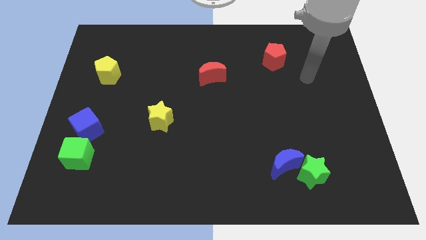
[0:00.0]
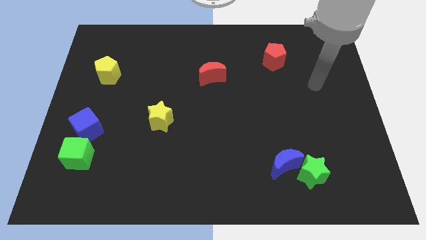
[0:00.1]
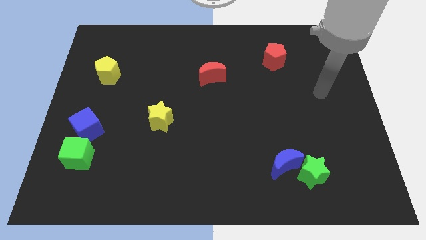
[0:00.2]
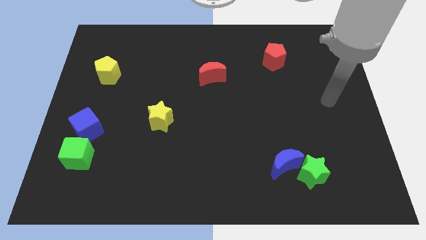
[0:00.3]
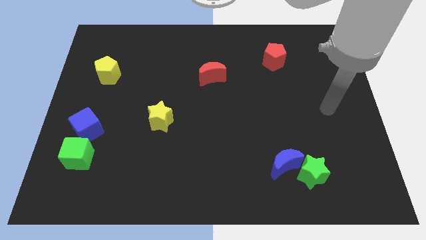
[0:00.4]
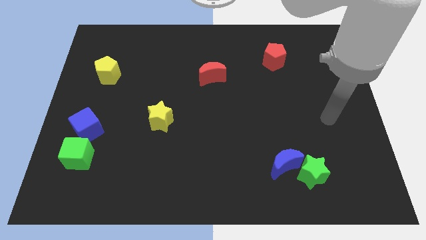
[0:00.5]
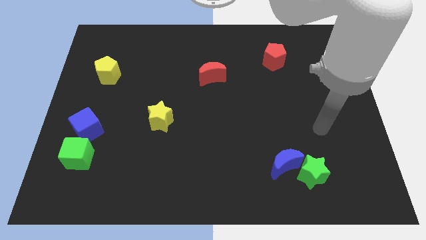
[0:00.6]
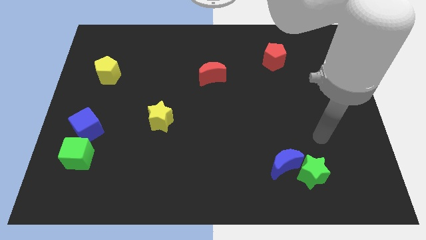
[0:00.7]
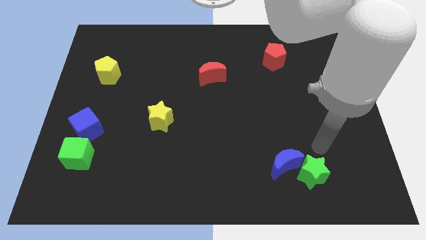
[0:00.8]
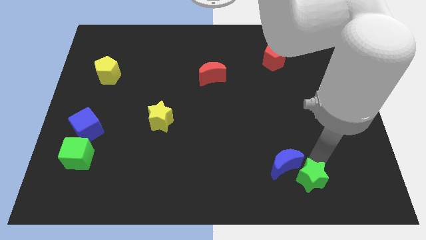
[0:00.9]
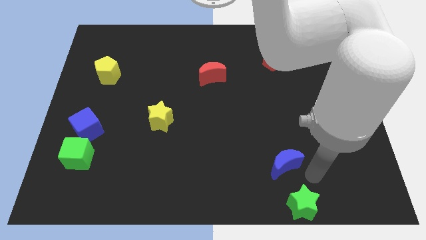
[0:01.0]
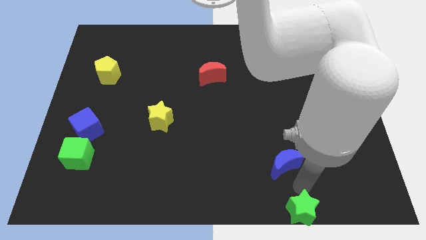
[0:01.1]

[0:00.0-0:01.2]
separate the blue moon from the green star

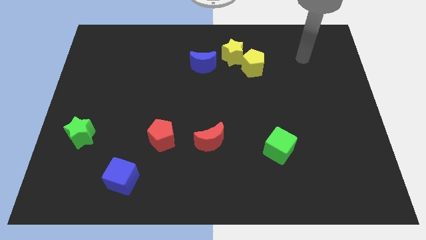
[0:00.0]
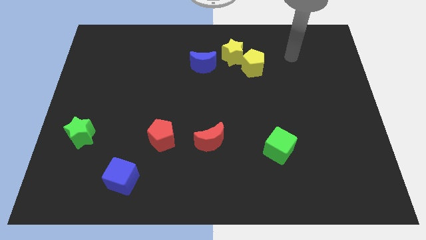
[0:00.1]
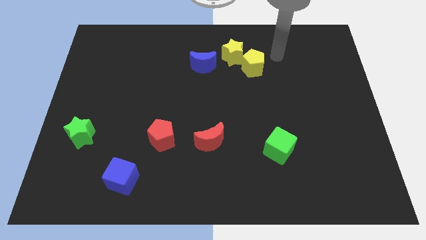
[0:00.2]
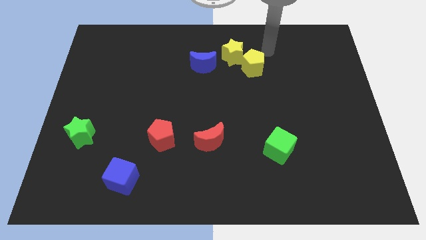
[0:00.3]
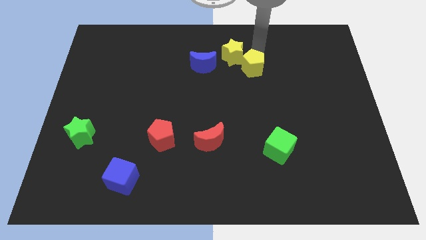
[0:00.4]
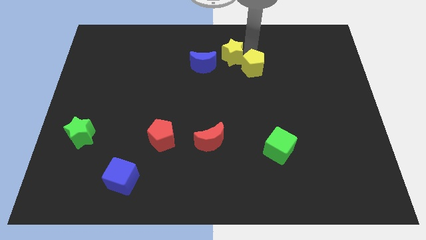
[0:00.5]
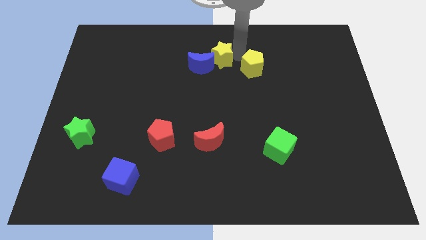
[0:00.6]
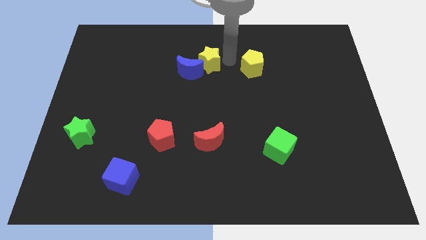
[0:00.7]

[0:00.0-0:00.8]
pull the yellow pentagon apart from the yellow star

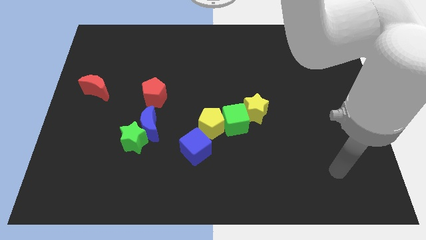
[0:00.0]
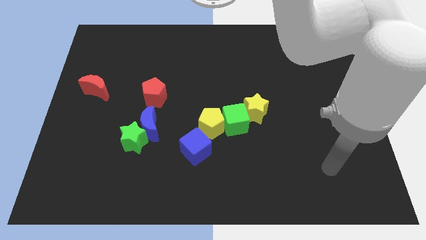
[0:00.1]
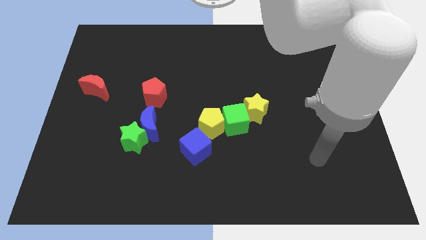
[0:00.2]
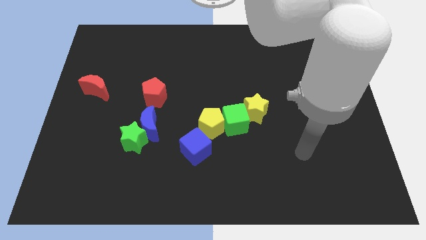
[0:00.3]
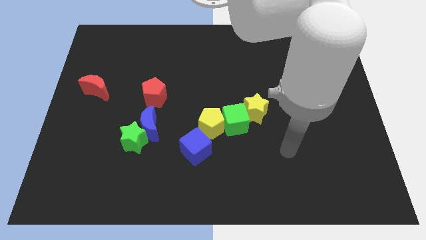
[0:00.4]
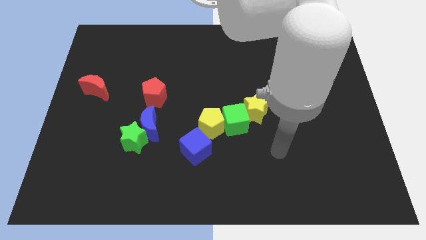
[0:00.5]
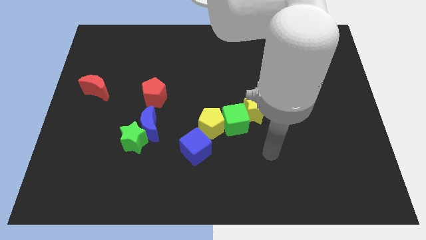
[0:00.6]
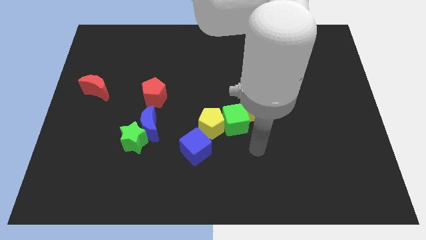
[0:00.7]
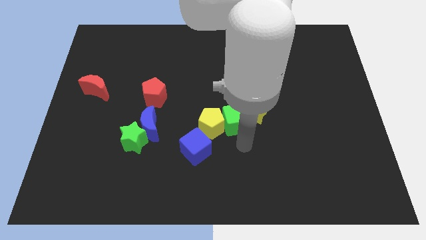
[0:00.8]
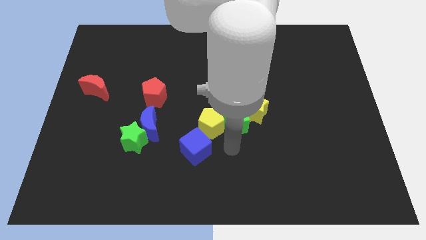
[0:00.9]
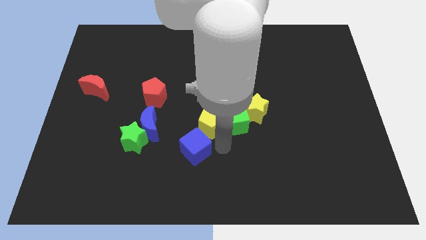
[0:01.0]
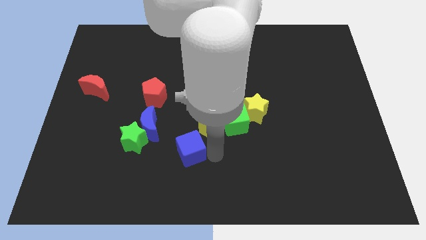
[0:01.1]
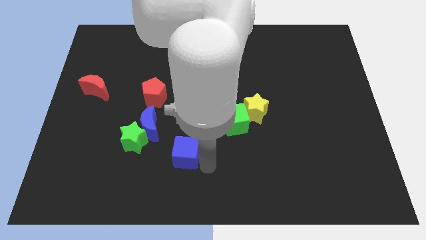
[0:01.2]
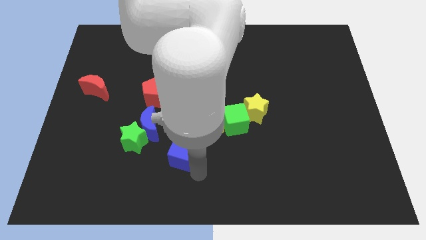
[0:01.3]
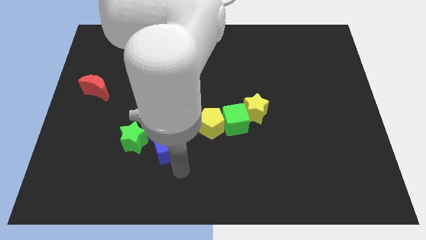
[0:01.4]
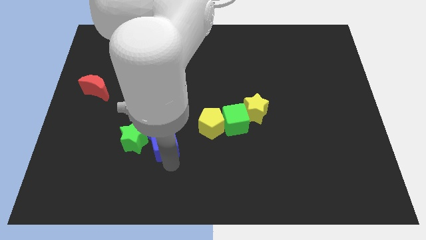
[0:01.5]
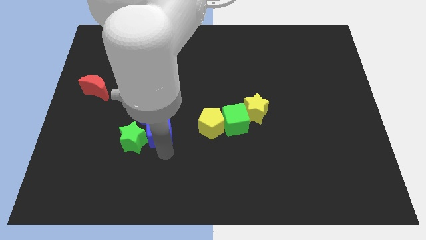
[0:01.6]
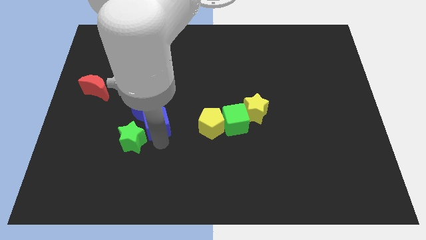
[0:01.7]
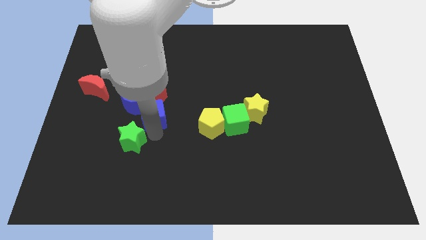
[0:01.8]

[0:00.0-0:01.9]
separate the green star from the blue moon

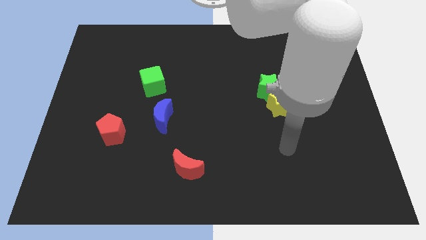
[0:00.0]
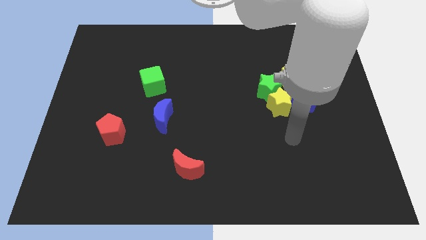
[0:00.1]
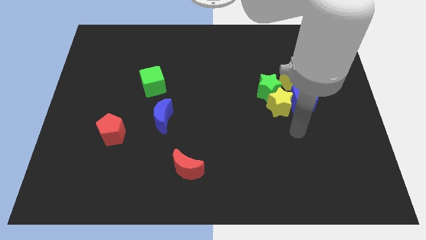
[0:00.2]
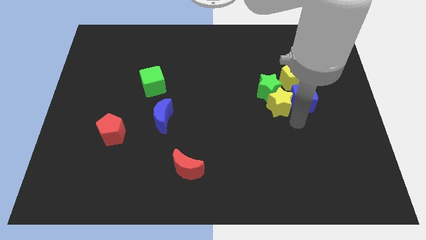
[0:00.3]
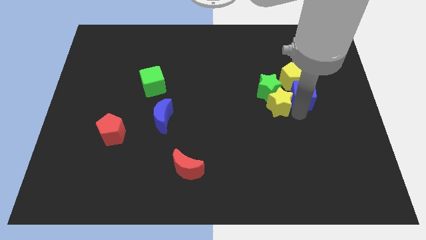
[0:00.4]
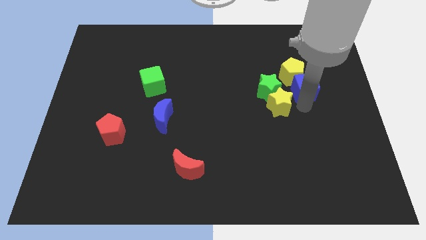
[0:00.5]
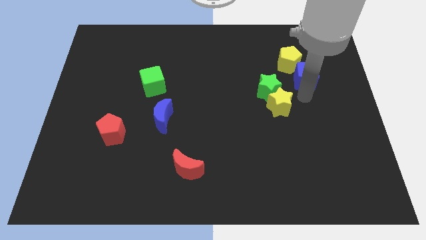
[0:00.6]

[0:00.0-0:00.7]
separate the yellow star from the green star, blue cube, and yellow pentagon

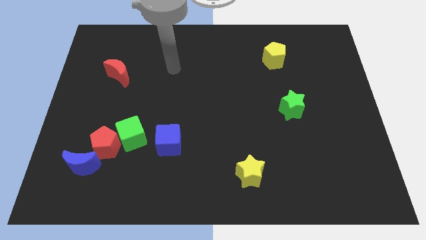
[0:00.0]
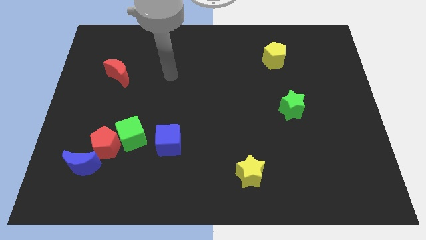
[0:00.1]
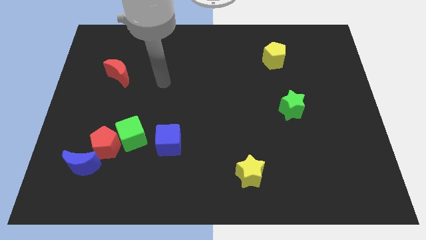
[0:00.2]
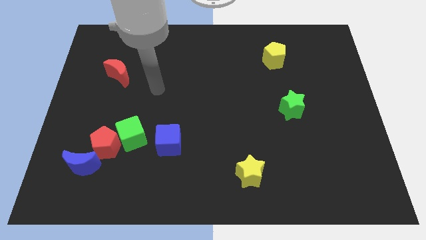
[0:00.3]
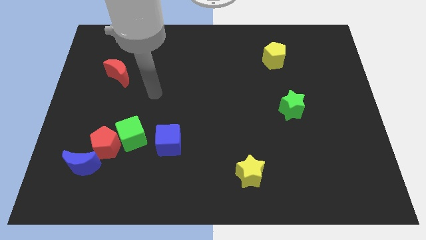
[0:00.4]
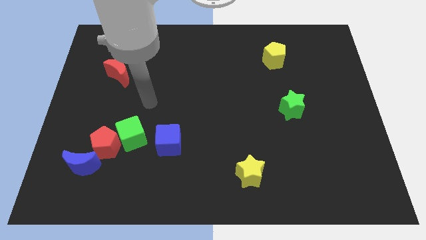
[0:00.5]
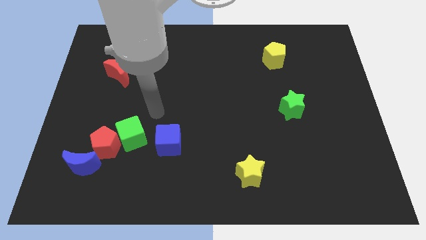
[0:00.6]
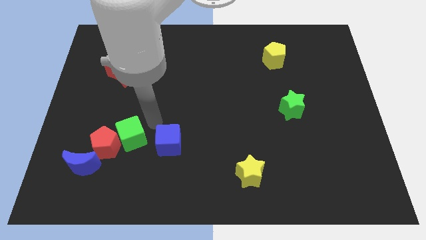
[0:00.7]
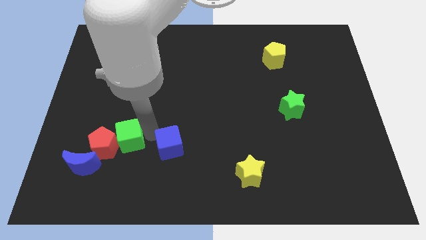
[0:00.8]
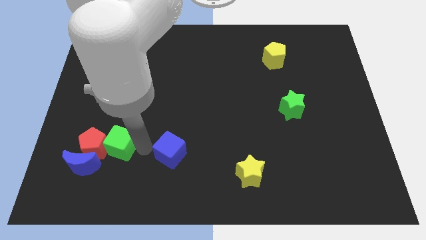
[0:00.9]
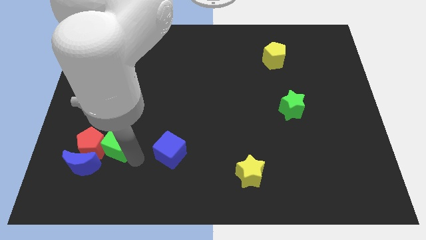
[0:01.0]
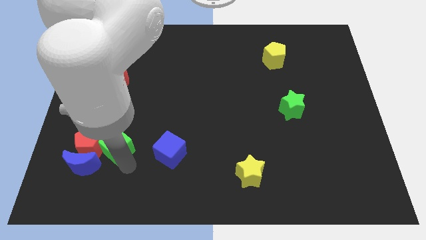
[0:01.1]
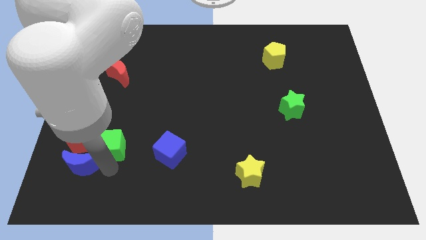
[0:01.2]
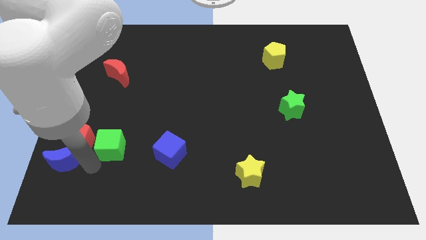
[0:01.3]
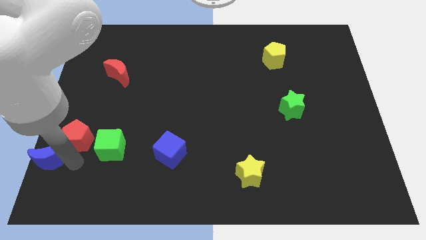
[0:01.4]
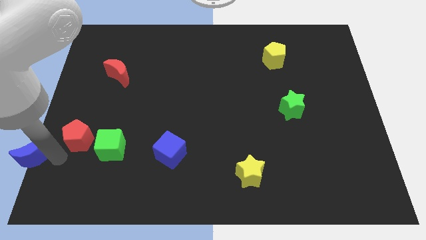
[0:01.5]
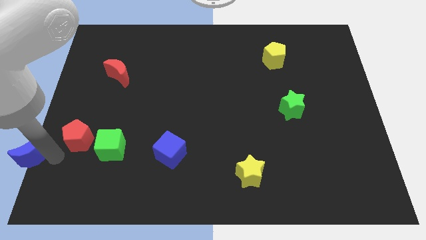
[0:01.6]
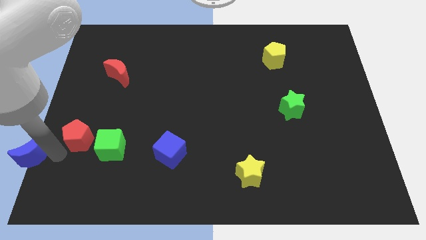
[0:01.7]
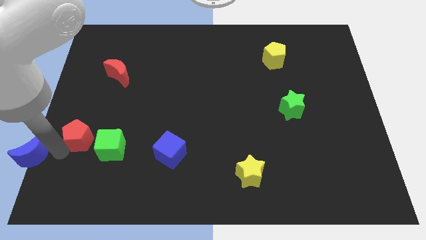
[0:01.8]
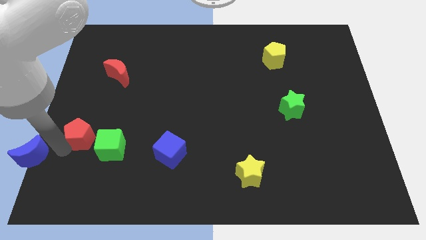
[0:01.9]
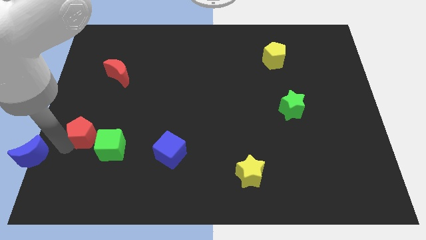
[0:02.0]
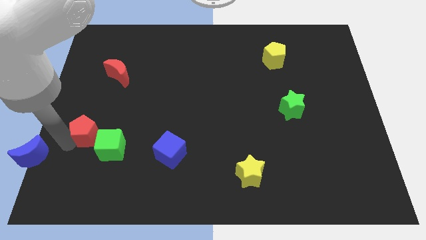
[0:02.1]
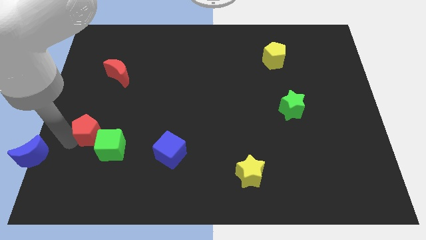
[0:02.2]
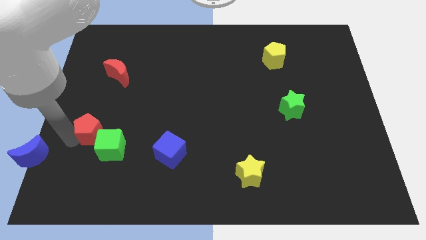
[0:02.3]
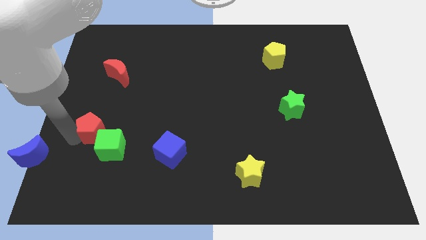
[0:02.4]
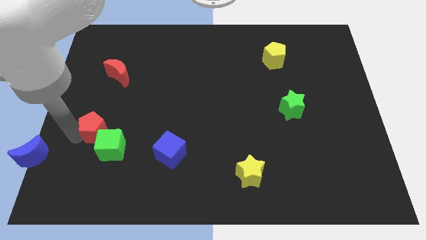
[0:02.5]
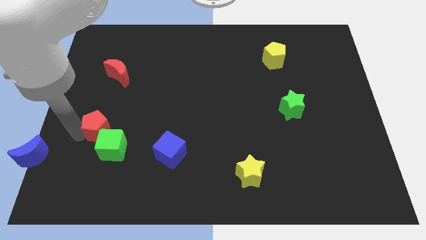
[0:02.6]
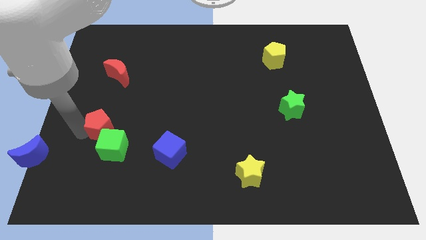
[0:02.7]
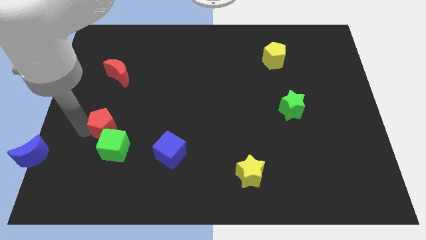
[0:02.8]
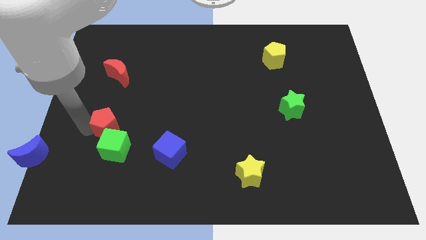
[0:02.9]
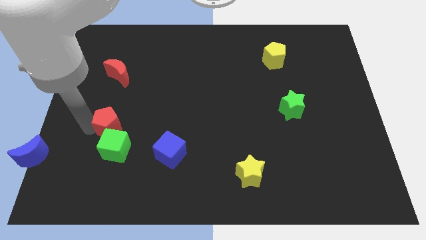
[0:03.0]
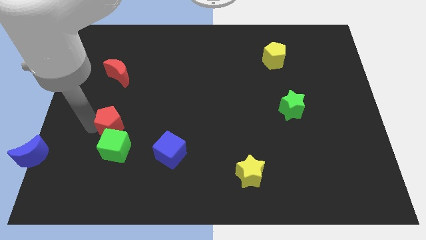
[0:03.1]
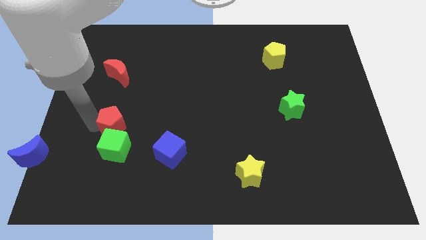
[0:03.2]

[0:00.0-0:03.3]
move the red pentagon away from the green cube and blue moon

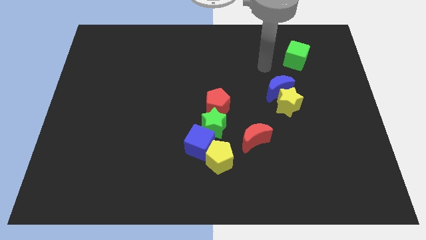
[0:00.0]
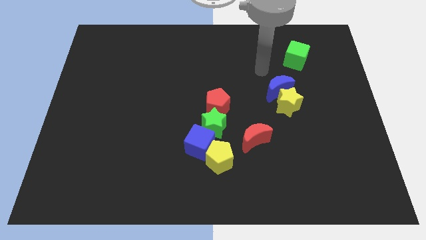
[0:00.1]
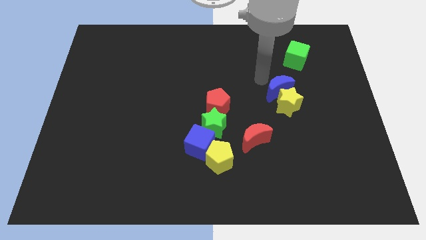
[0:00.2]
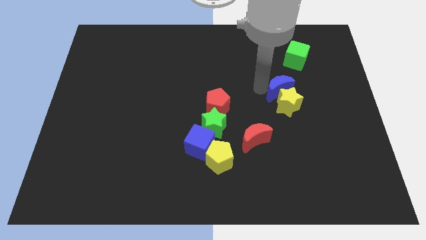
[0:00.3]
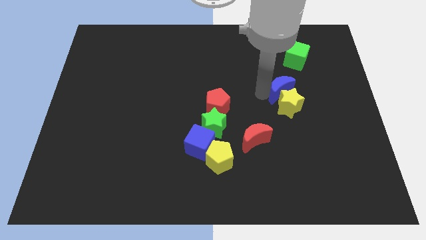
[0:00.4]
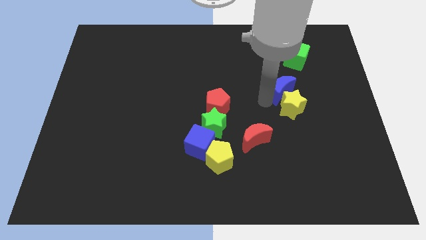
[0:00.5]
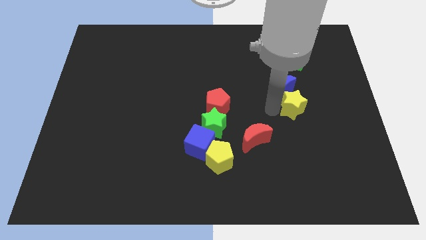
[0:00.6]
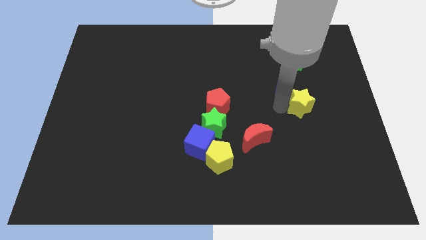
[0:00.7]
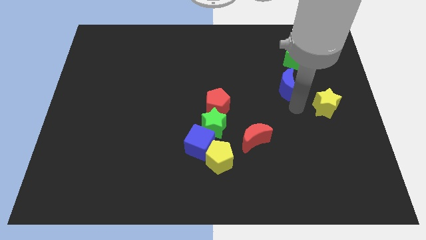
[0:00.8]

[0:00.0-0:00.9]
move the blue moon away from the yellow star

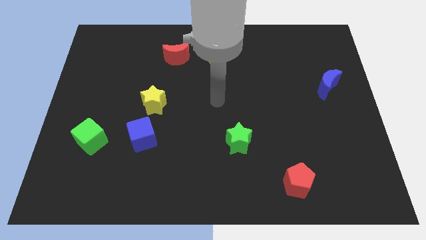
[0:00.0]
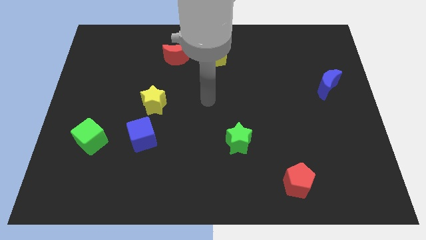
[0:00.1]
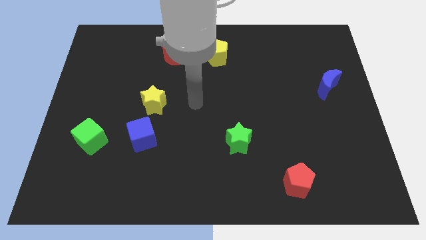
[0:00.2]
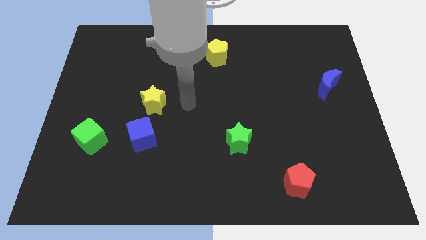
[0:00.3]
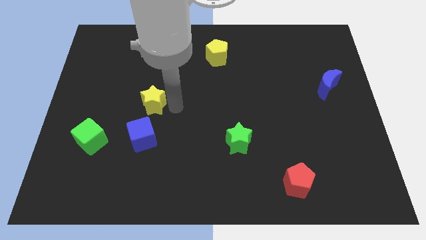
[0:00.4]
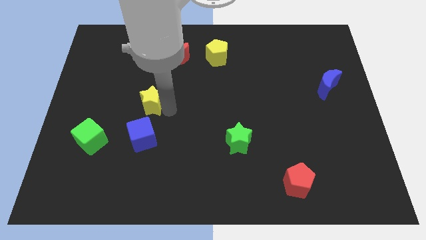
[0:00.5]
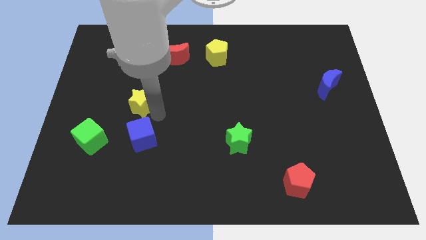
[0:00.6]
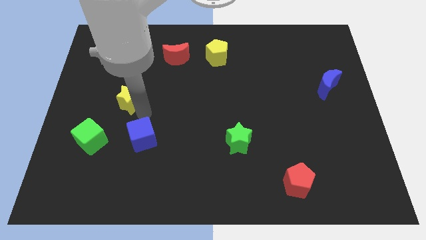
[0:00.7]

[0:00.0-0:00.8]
move the blue cube away from the yellow star
